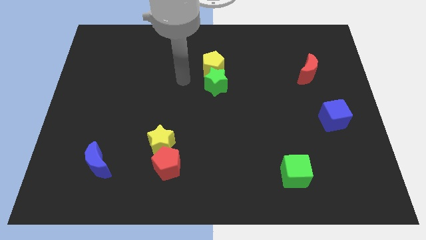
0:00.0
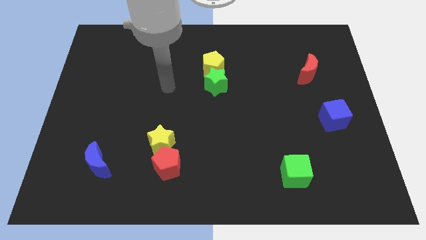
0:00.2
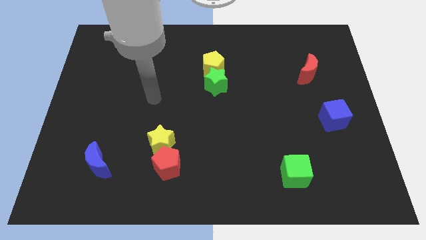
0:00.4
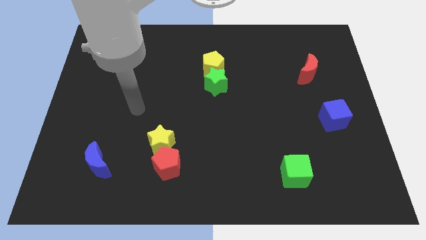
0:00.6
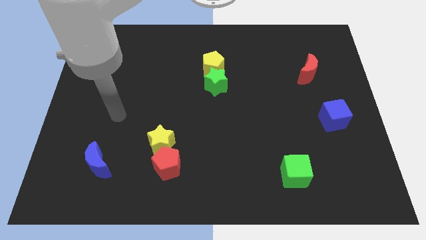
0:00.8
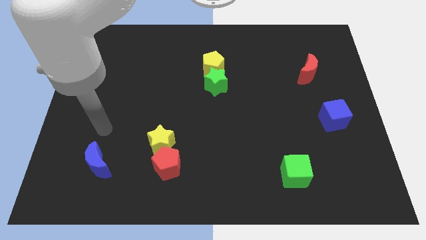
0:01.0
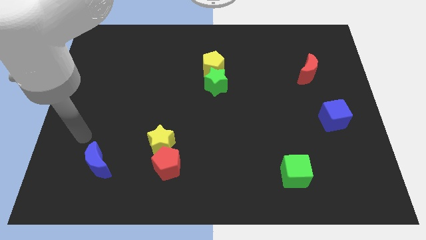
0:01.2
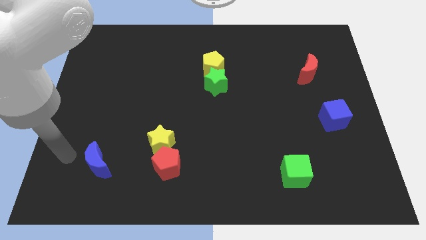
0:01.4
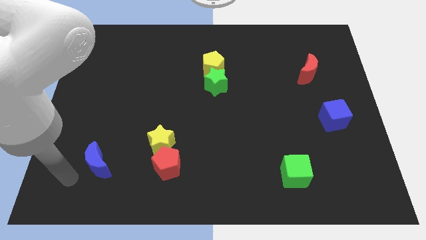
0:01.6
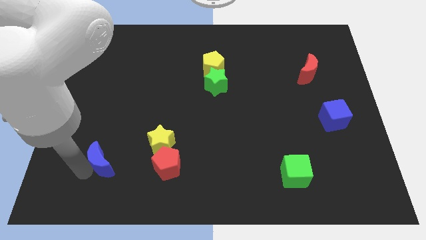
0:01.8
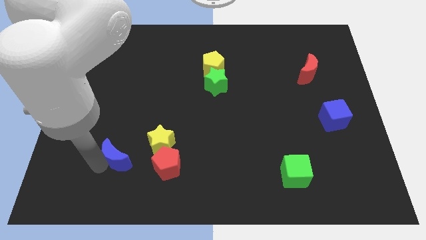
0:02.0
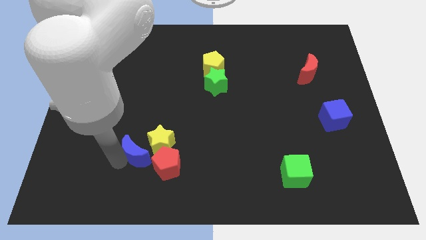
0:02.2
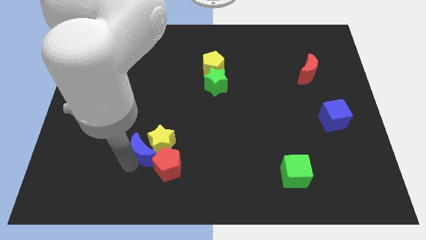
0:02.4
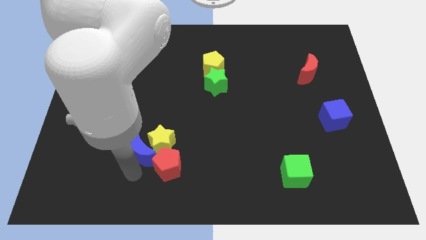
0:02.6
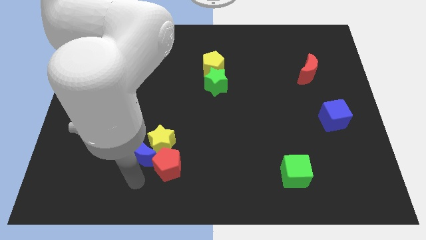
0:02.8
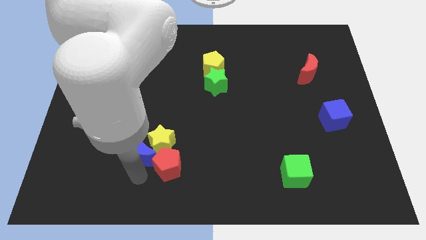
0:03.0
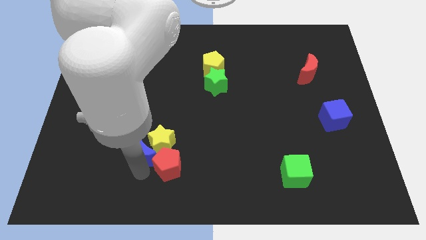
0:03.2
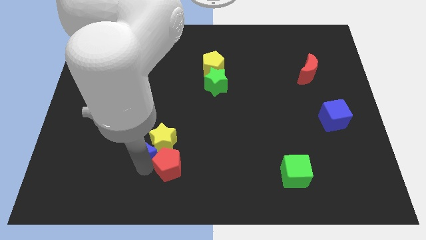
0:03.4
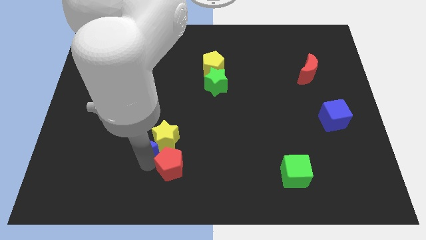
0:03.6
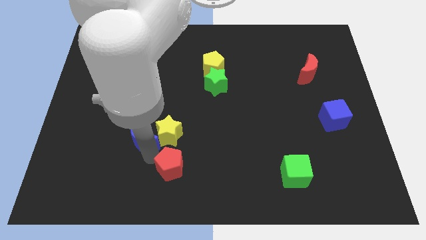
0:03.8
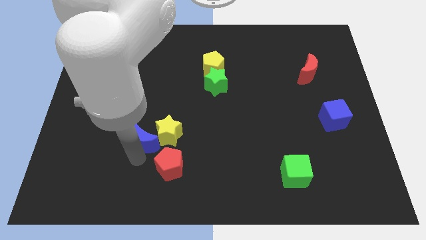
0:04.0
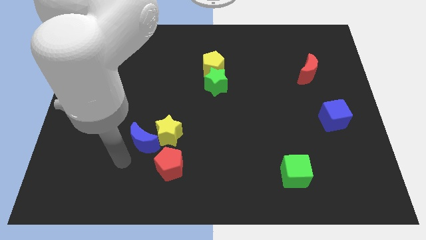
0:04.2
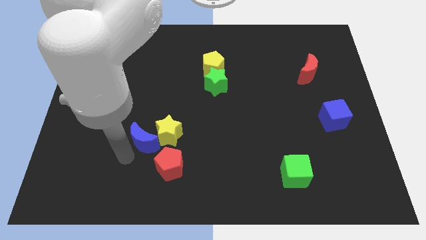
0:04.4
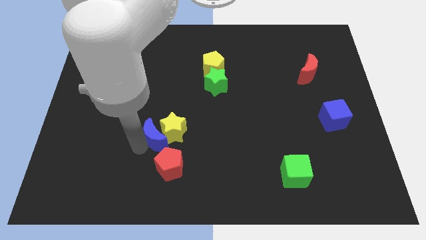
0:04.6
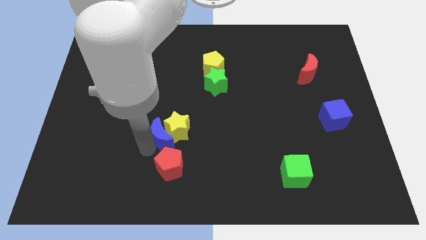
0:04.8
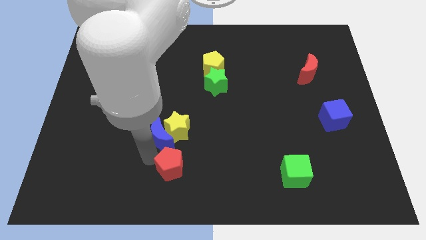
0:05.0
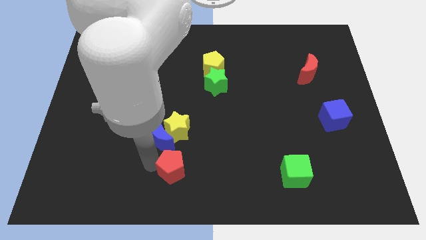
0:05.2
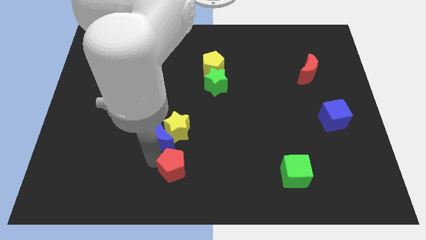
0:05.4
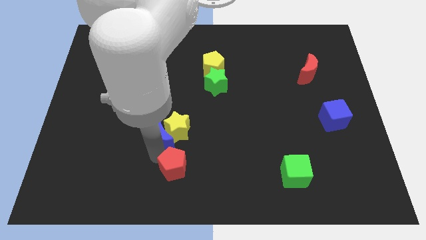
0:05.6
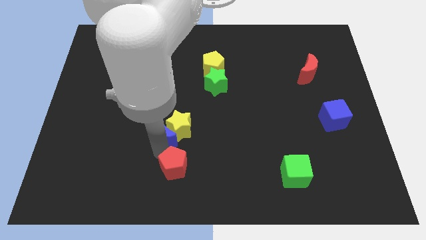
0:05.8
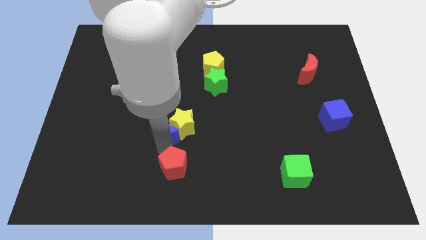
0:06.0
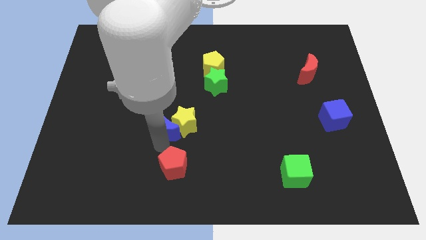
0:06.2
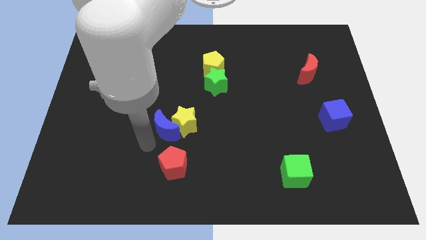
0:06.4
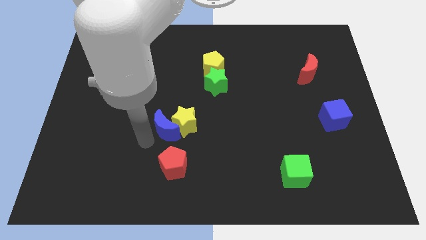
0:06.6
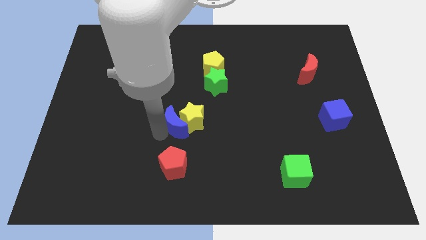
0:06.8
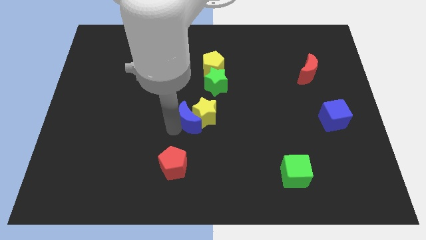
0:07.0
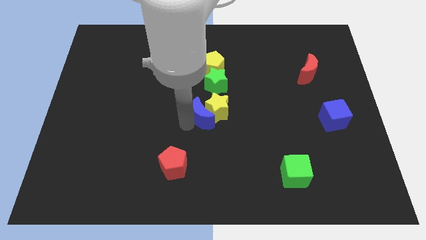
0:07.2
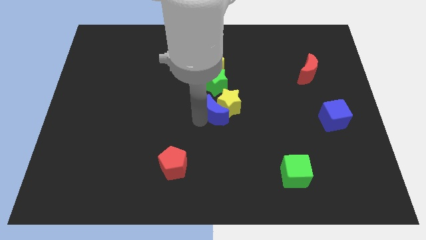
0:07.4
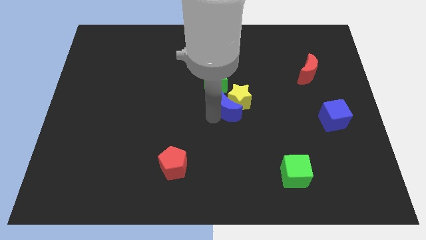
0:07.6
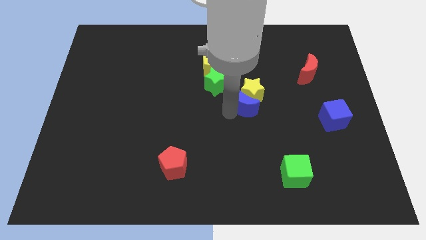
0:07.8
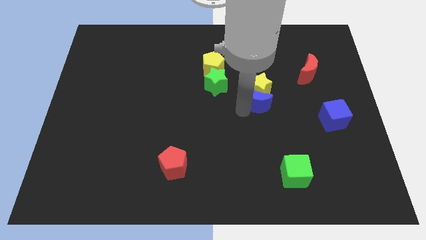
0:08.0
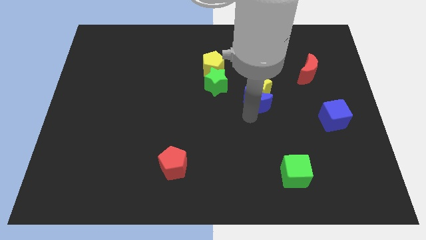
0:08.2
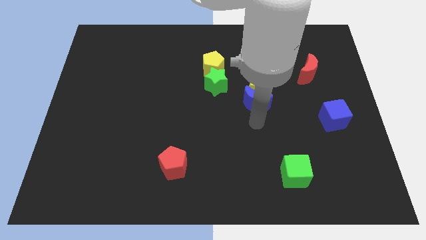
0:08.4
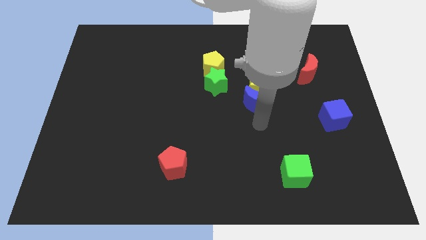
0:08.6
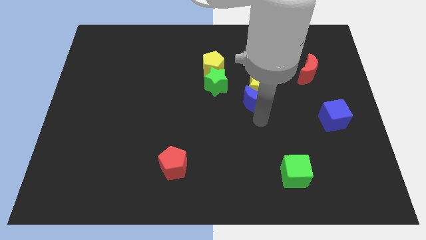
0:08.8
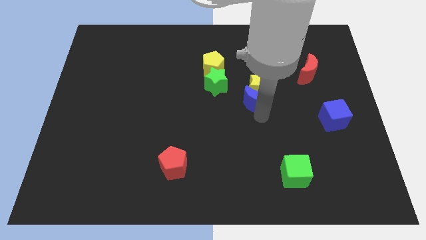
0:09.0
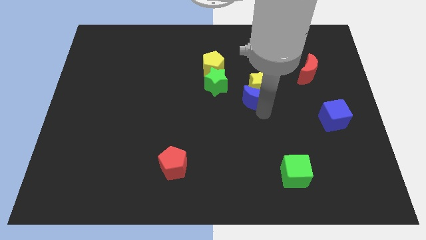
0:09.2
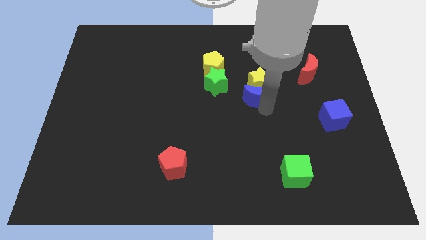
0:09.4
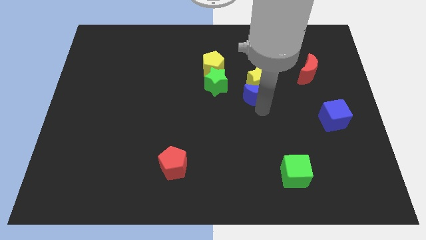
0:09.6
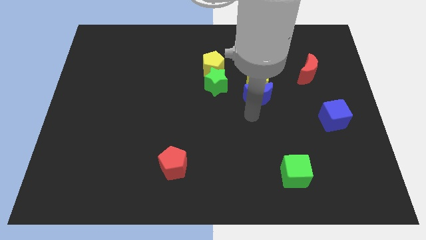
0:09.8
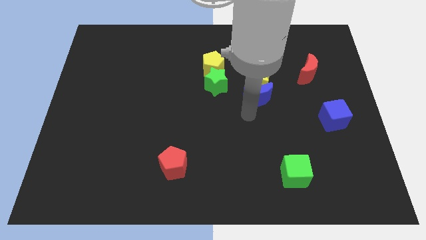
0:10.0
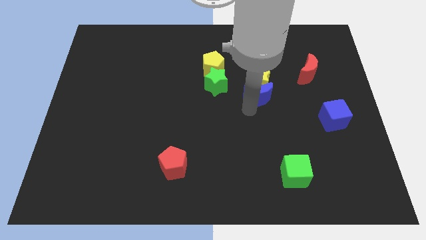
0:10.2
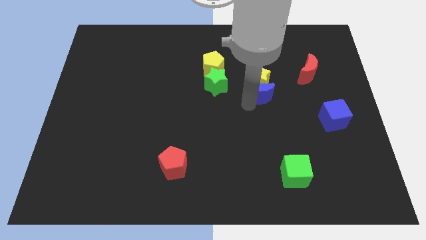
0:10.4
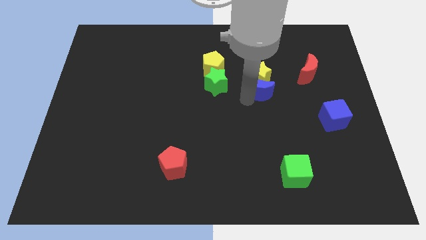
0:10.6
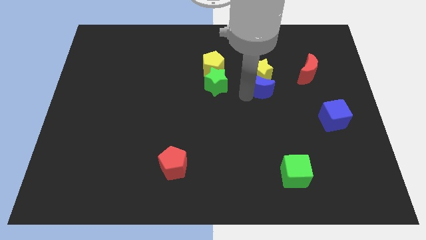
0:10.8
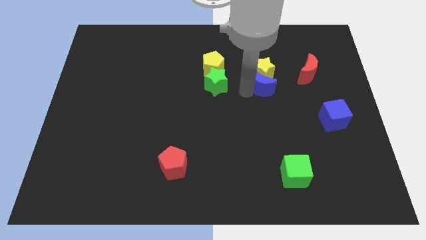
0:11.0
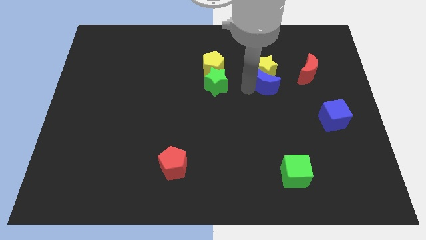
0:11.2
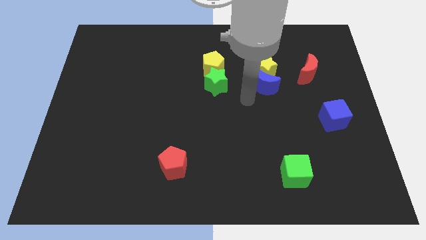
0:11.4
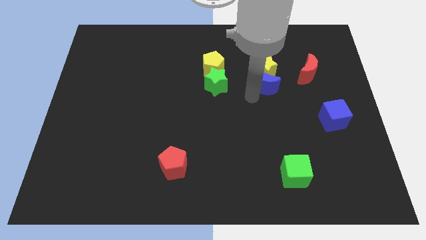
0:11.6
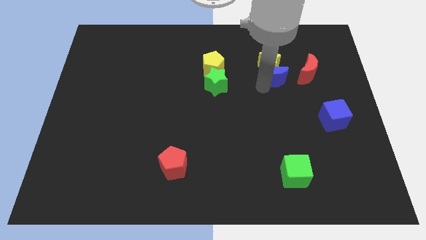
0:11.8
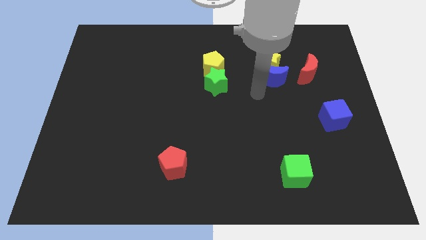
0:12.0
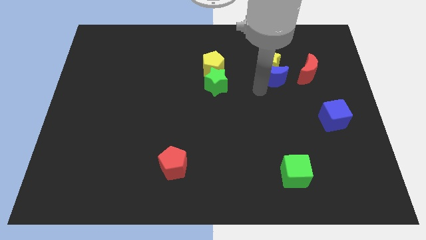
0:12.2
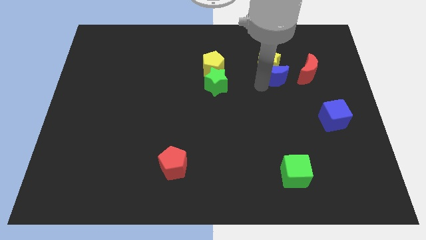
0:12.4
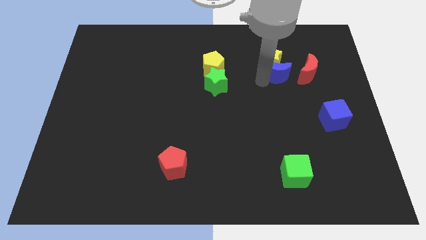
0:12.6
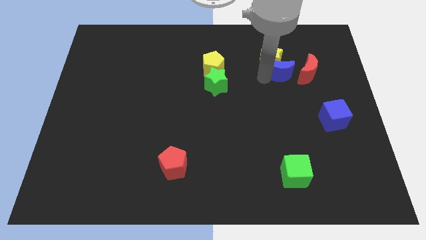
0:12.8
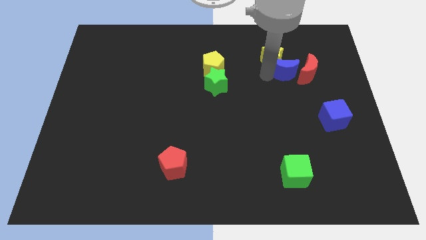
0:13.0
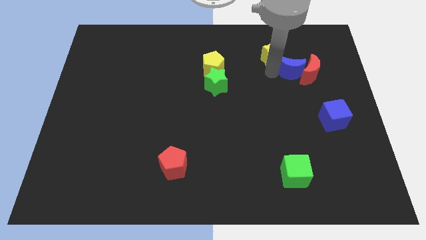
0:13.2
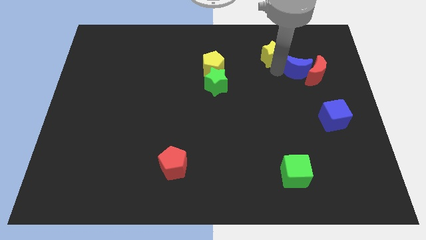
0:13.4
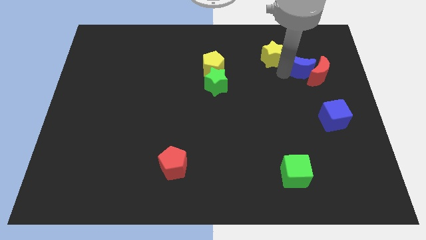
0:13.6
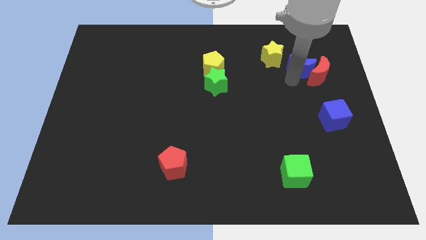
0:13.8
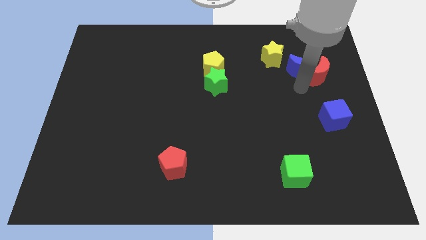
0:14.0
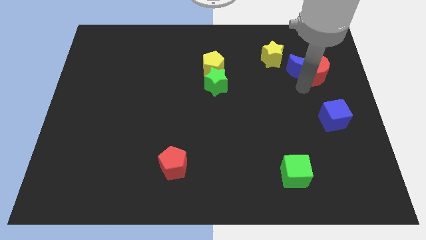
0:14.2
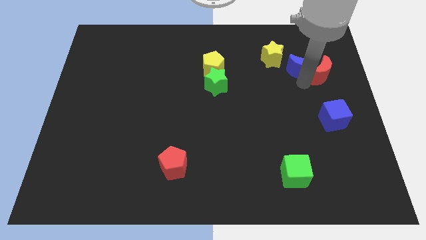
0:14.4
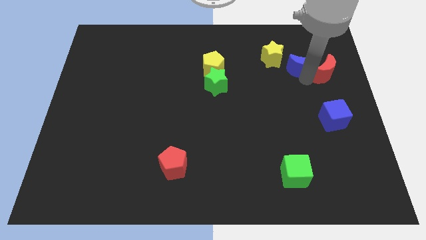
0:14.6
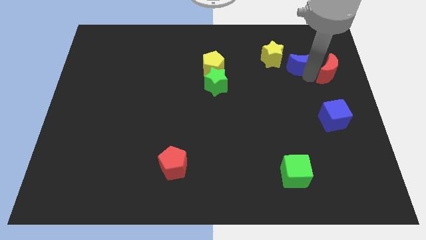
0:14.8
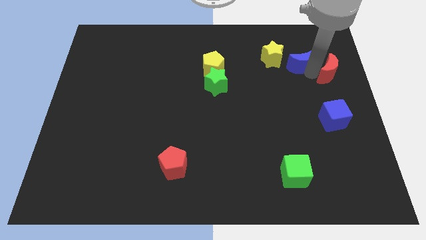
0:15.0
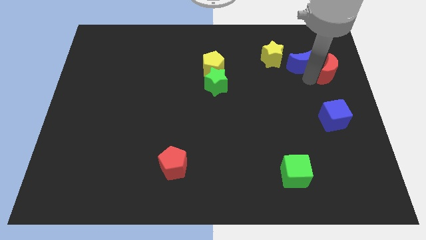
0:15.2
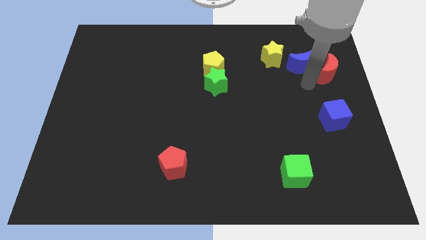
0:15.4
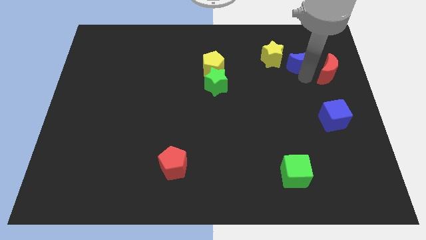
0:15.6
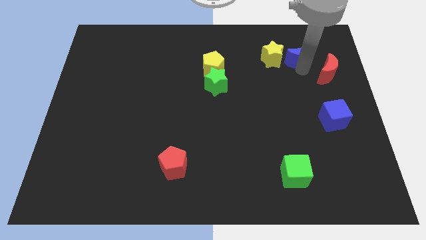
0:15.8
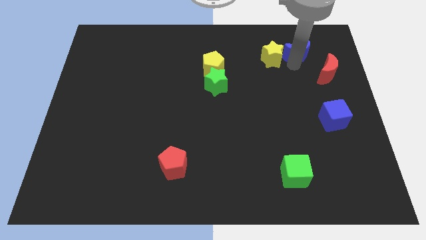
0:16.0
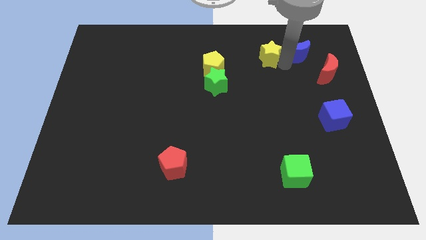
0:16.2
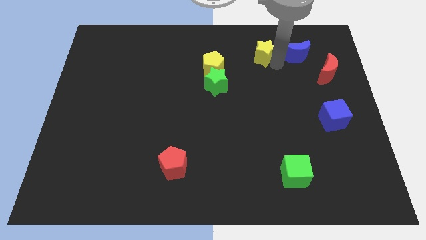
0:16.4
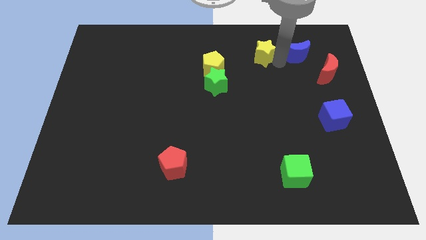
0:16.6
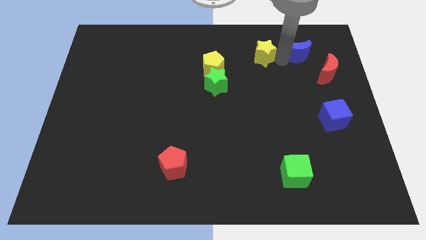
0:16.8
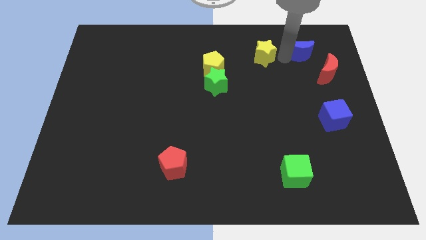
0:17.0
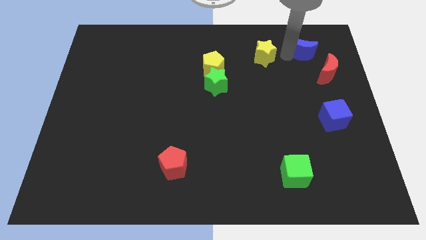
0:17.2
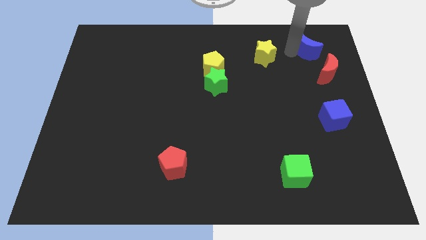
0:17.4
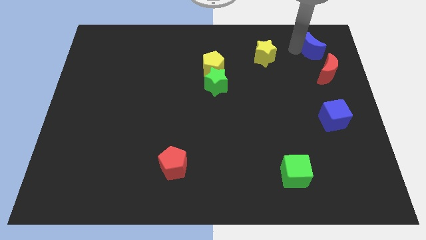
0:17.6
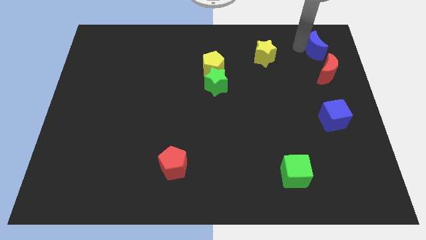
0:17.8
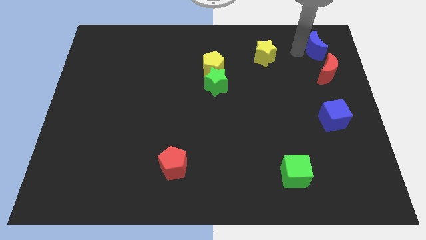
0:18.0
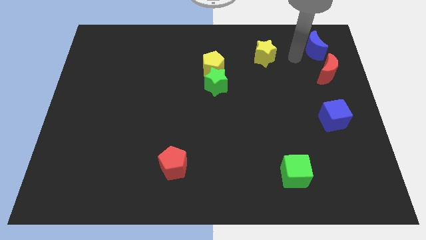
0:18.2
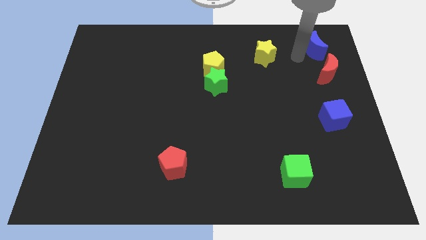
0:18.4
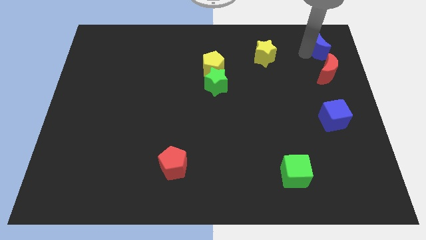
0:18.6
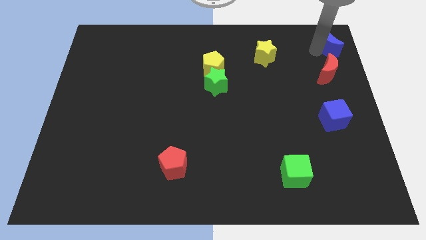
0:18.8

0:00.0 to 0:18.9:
put the blue moon to the upper right corner
